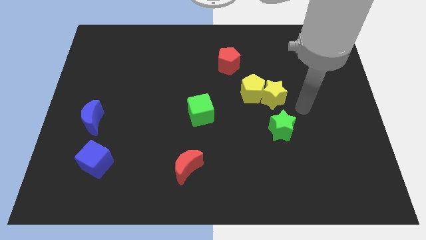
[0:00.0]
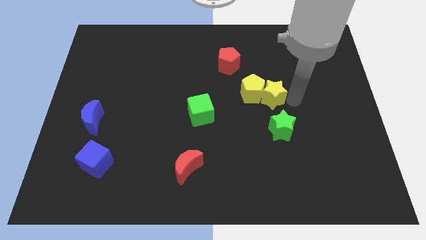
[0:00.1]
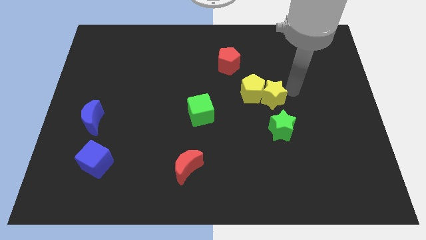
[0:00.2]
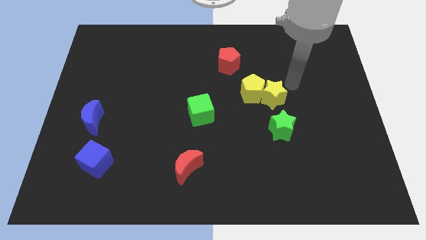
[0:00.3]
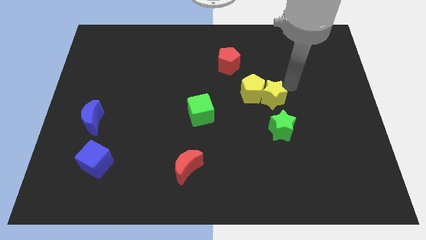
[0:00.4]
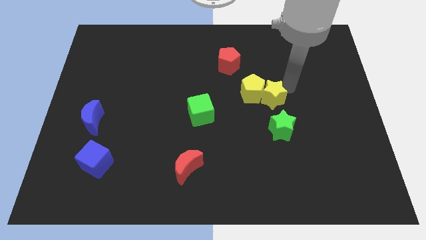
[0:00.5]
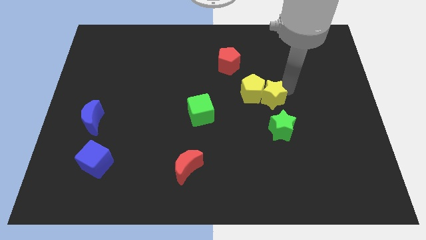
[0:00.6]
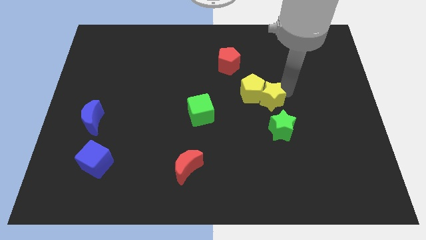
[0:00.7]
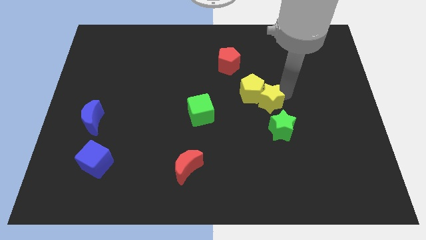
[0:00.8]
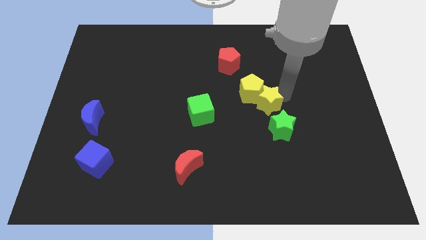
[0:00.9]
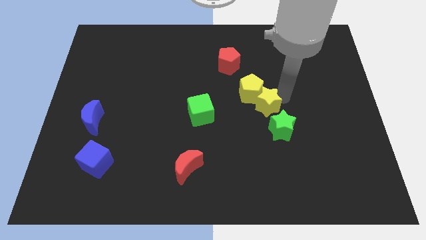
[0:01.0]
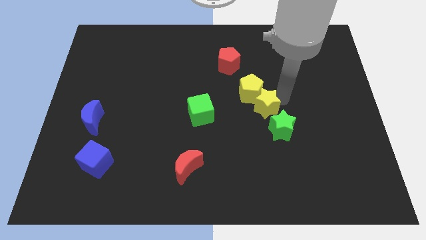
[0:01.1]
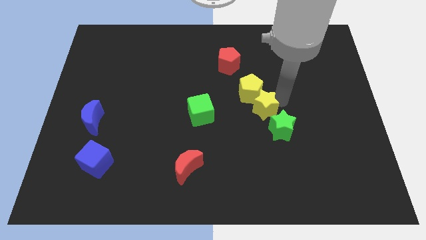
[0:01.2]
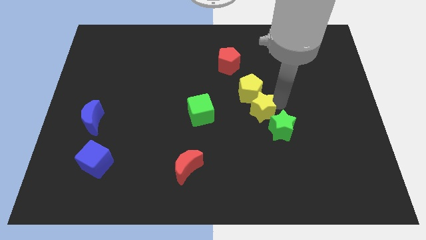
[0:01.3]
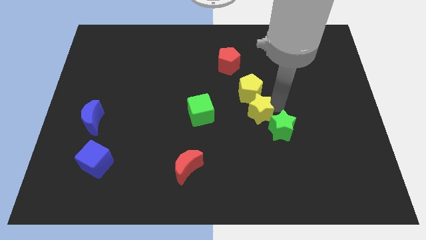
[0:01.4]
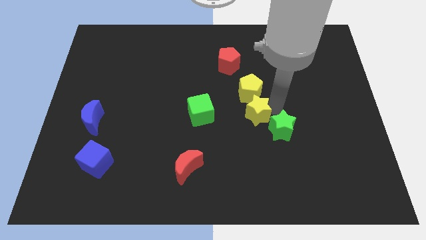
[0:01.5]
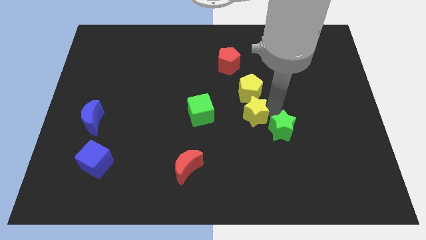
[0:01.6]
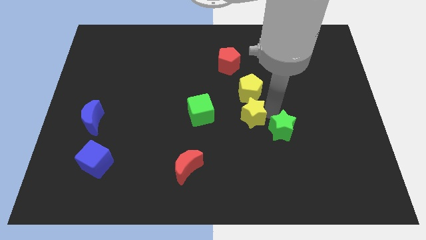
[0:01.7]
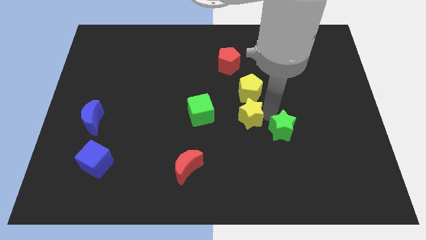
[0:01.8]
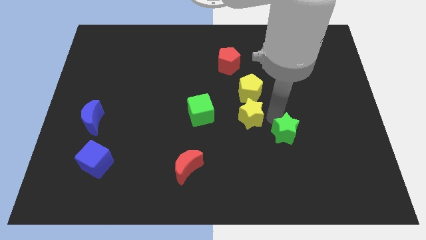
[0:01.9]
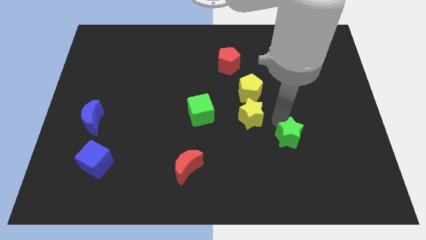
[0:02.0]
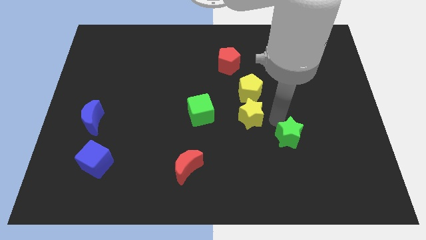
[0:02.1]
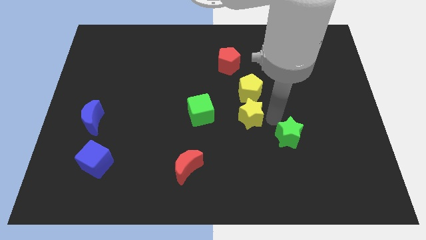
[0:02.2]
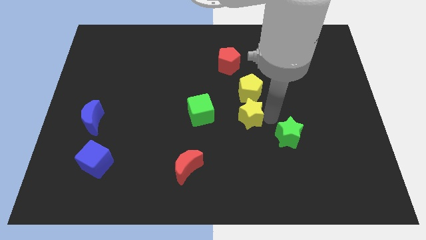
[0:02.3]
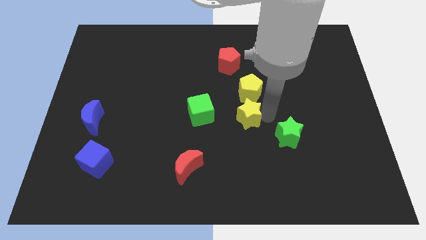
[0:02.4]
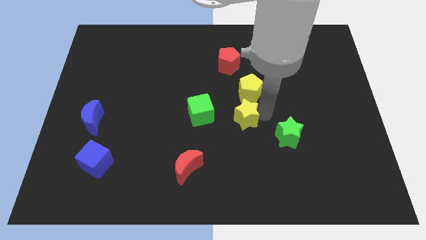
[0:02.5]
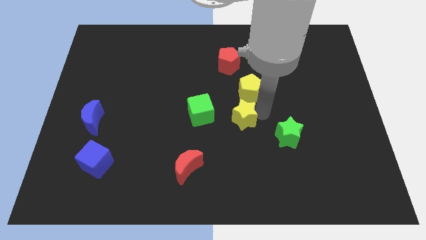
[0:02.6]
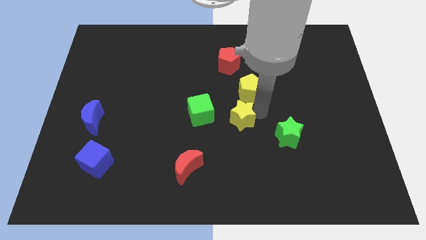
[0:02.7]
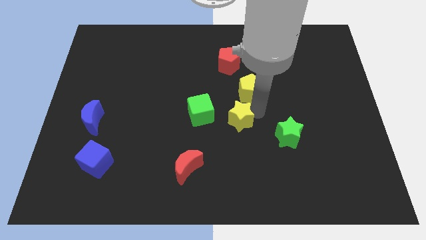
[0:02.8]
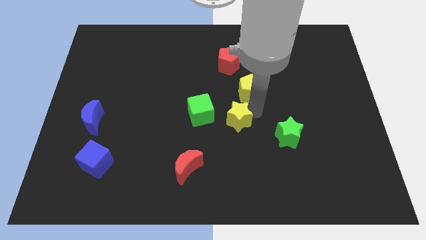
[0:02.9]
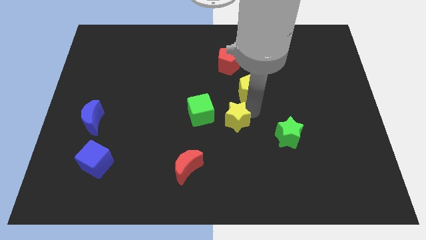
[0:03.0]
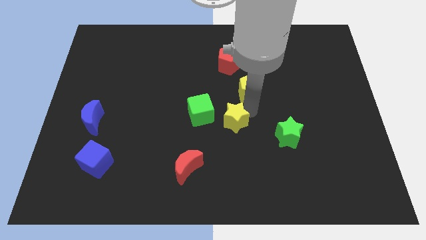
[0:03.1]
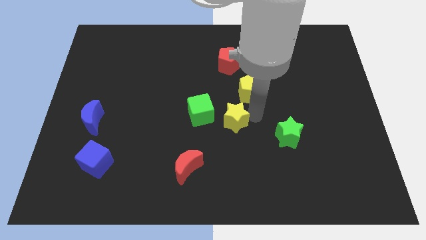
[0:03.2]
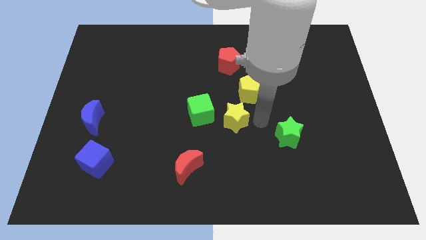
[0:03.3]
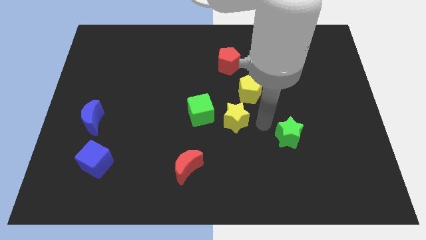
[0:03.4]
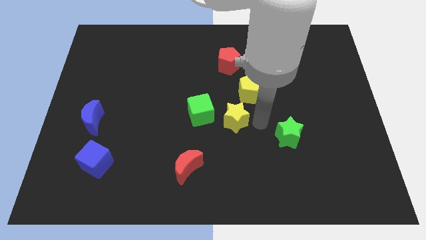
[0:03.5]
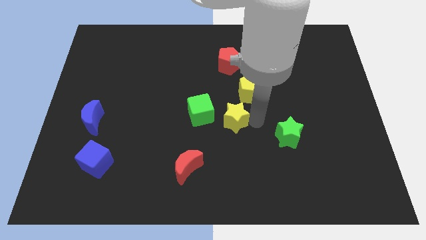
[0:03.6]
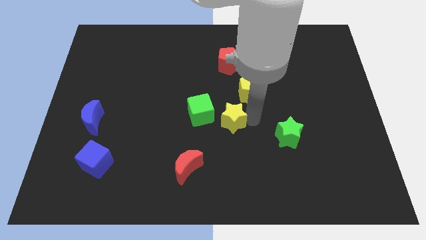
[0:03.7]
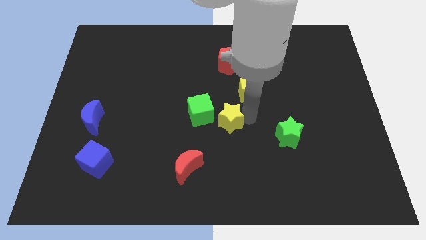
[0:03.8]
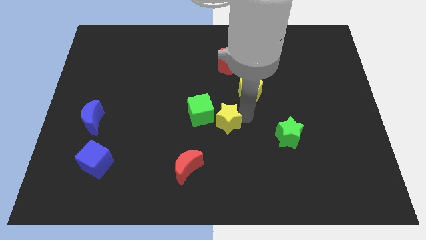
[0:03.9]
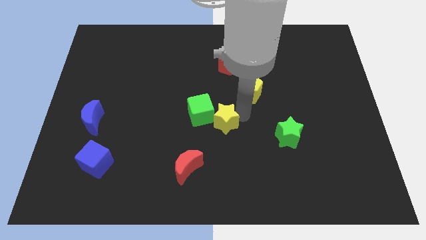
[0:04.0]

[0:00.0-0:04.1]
move the yellow star to the green cube

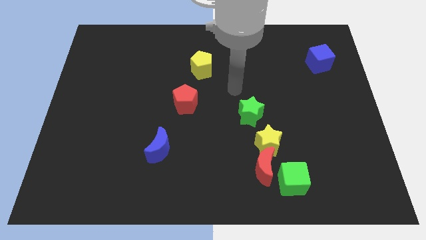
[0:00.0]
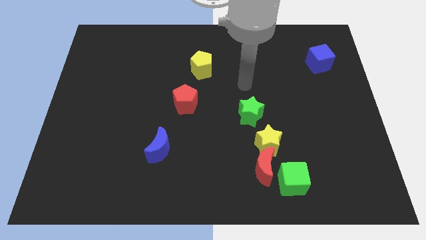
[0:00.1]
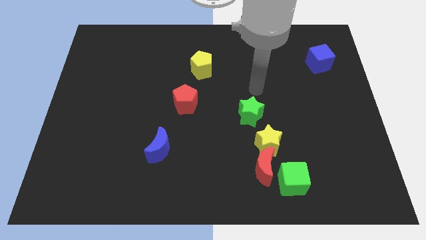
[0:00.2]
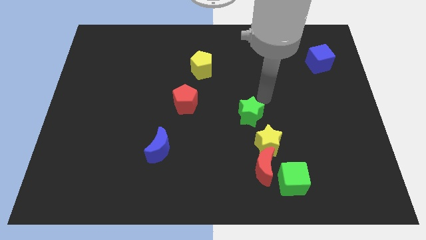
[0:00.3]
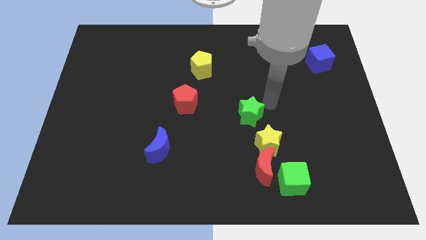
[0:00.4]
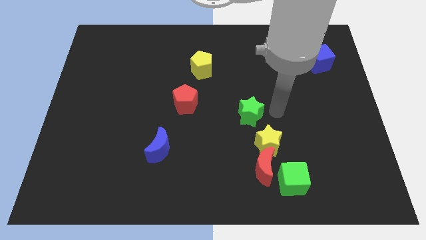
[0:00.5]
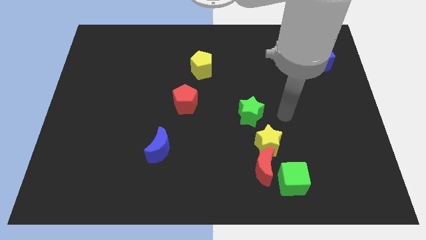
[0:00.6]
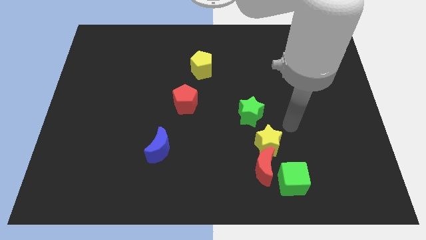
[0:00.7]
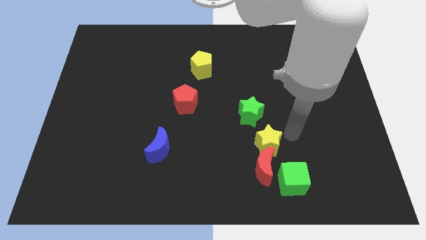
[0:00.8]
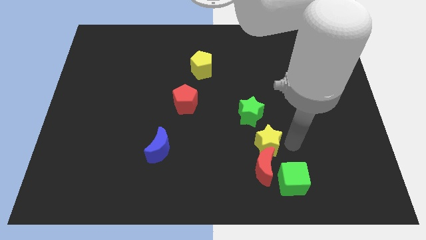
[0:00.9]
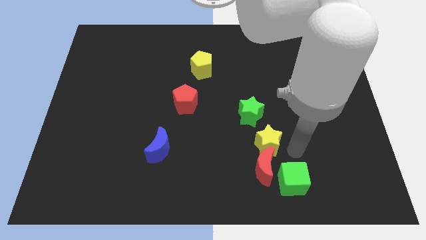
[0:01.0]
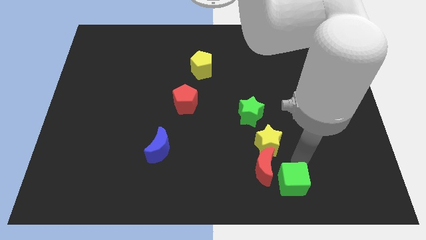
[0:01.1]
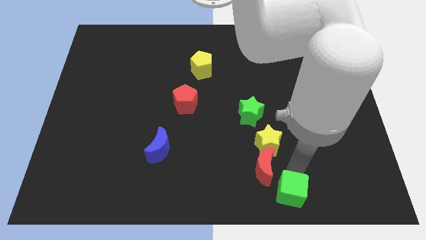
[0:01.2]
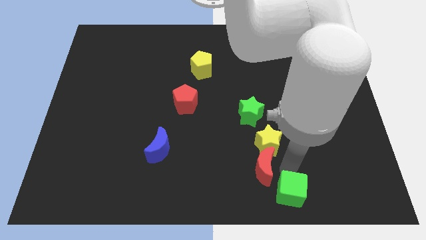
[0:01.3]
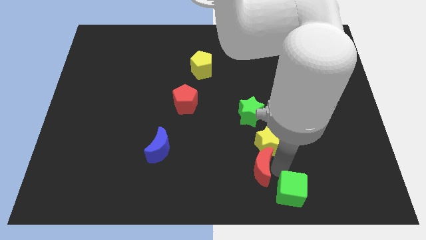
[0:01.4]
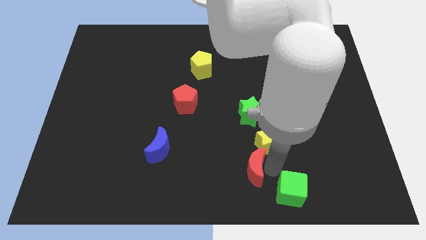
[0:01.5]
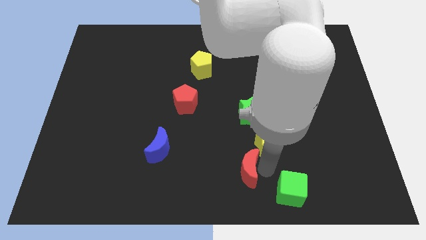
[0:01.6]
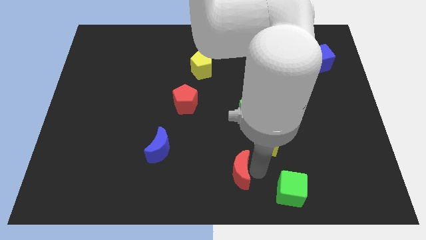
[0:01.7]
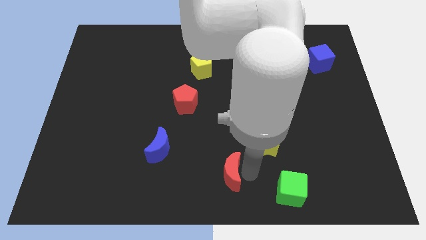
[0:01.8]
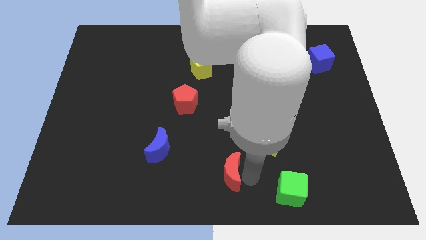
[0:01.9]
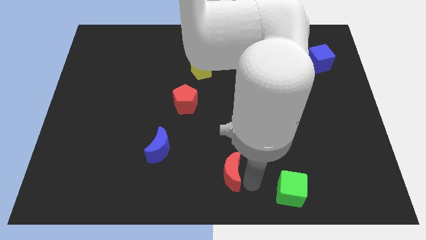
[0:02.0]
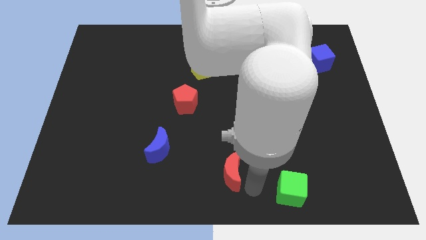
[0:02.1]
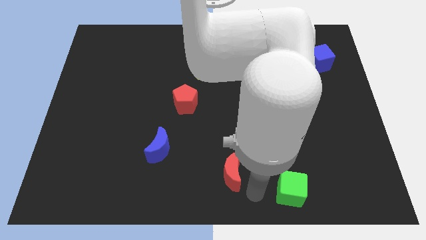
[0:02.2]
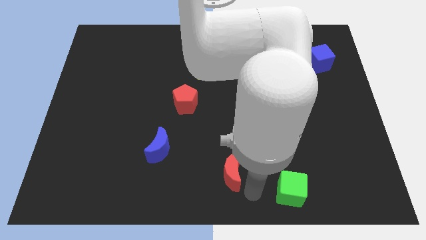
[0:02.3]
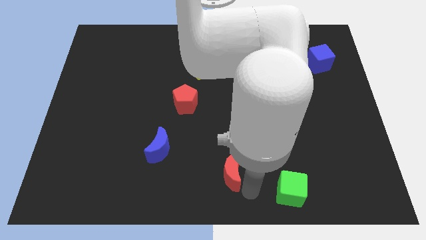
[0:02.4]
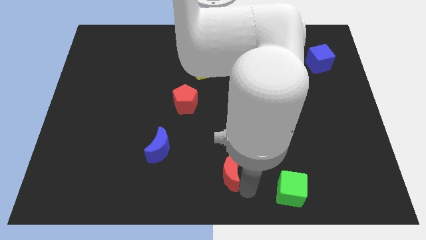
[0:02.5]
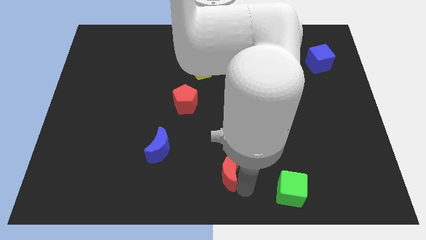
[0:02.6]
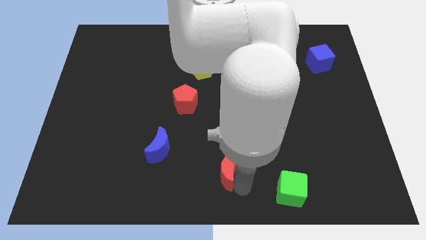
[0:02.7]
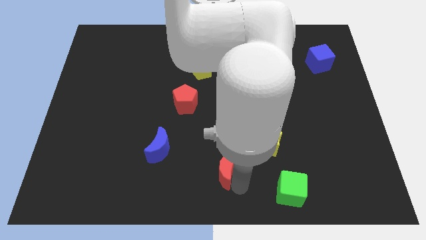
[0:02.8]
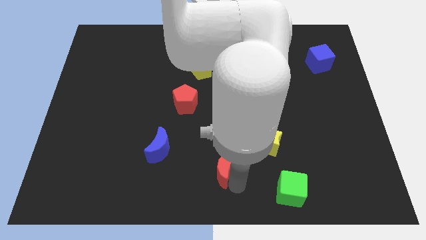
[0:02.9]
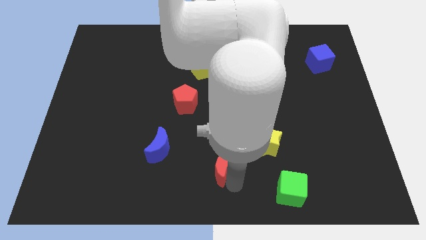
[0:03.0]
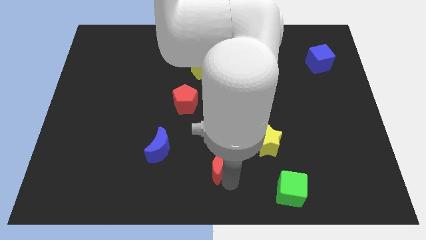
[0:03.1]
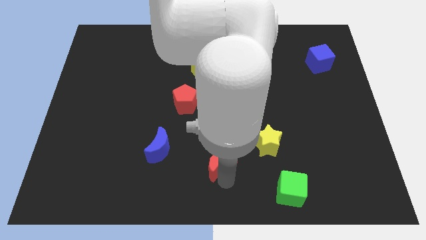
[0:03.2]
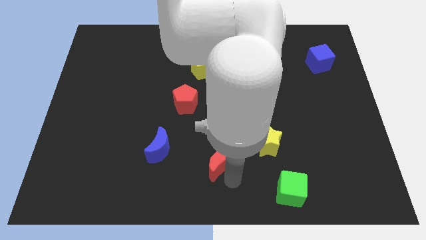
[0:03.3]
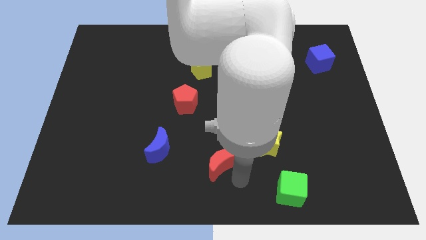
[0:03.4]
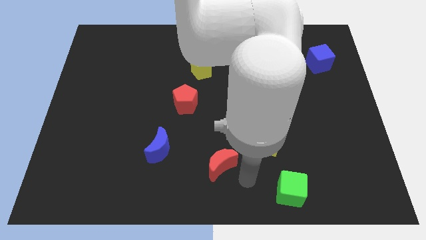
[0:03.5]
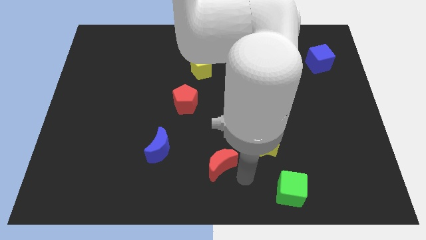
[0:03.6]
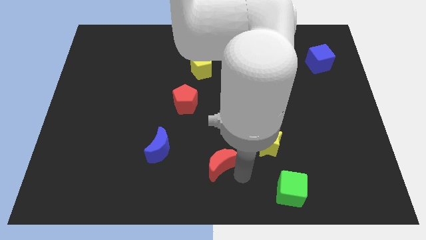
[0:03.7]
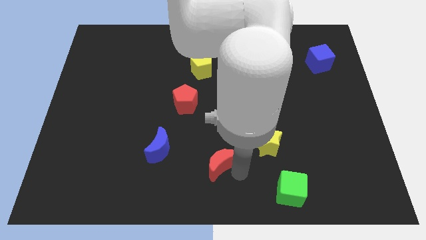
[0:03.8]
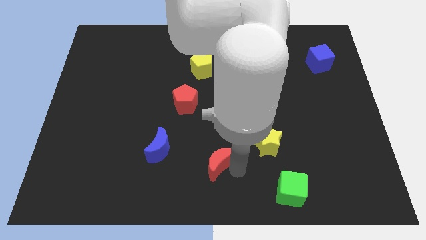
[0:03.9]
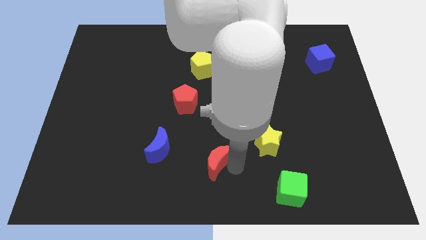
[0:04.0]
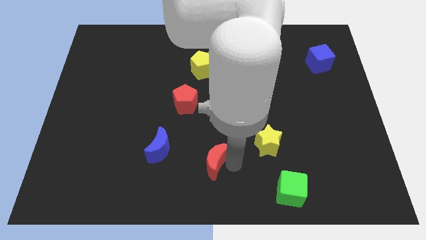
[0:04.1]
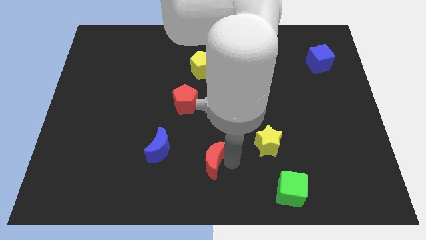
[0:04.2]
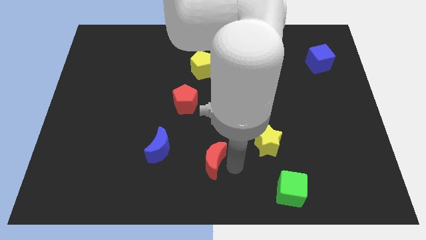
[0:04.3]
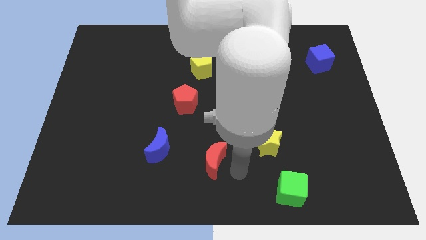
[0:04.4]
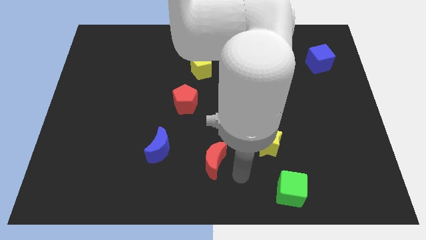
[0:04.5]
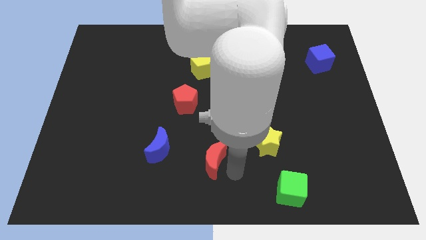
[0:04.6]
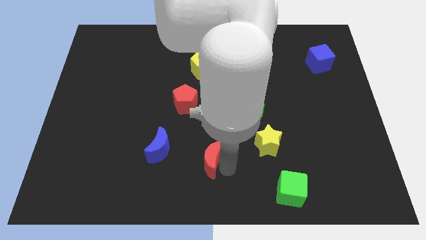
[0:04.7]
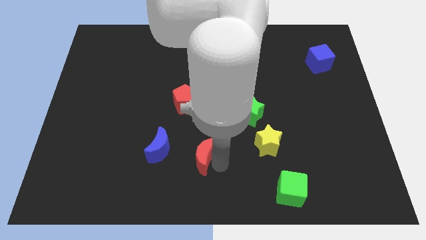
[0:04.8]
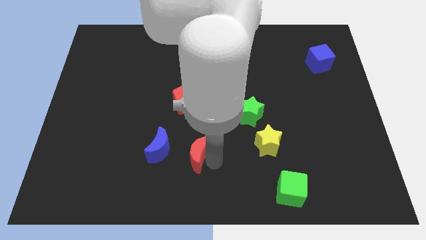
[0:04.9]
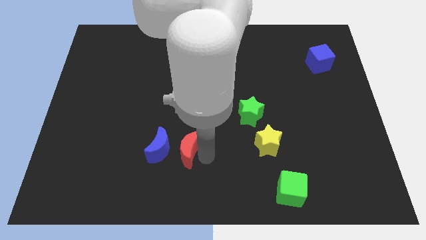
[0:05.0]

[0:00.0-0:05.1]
move the red moon to the blue moon
